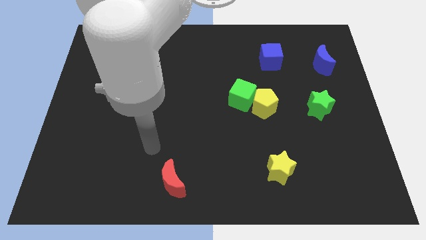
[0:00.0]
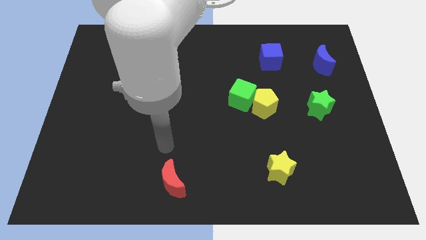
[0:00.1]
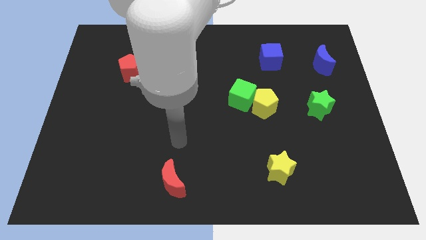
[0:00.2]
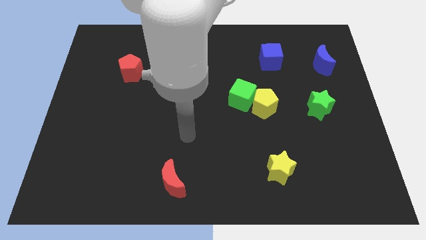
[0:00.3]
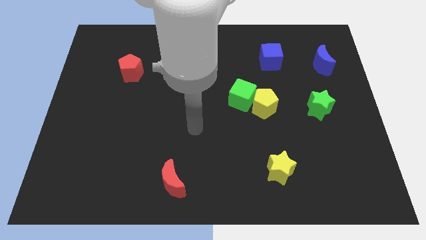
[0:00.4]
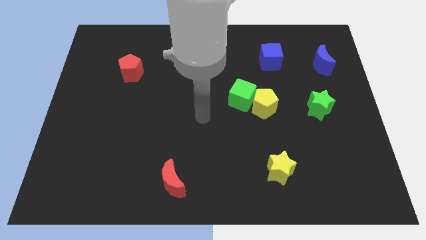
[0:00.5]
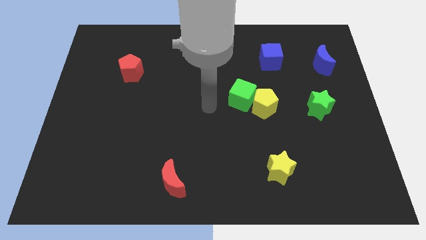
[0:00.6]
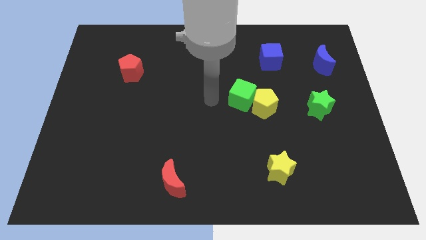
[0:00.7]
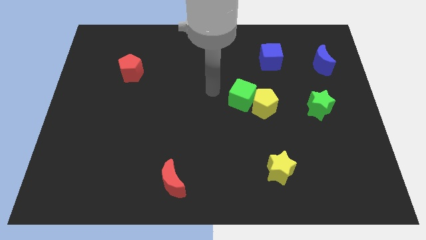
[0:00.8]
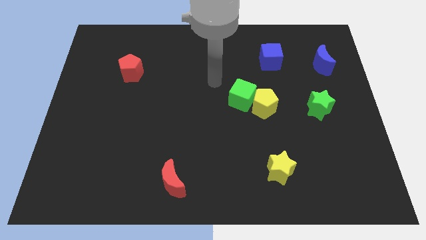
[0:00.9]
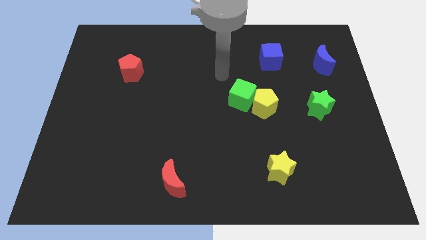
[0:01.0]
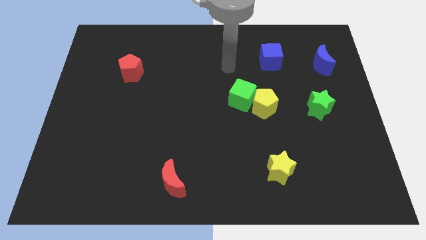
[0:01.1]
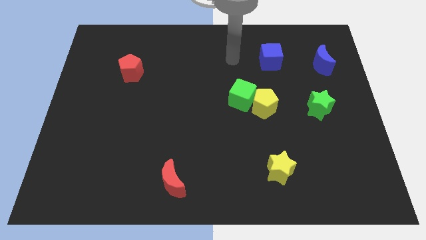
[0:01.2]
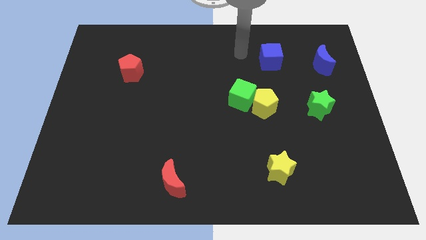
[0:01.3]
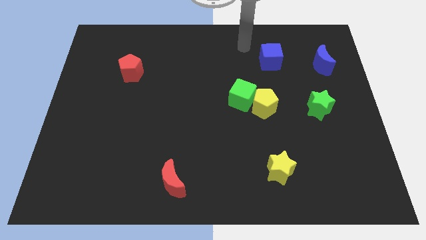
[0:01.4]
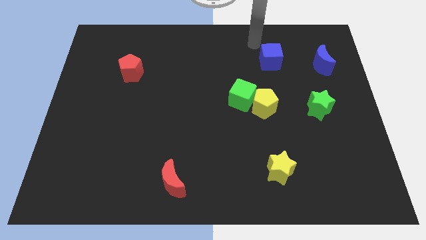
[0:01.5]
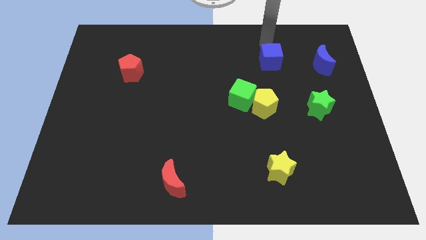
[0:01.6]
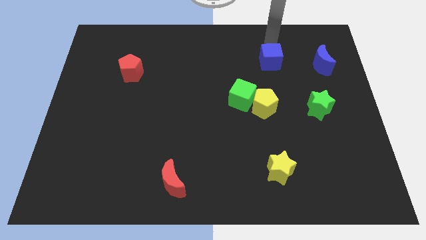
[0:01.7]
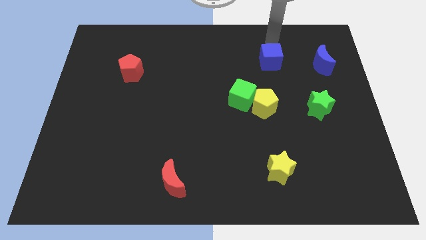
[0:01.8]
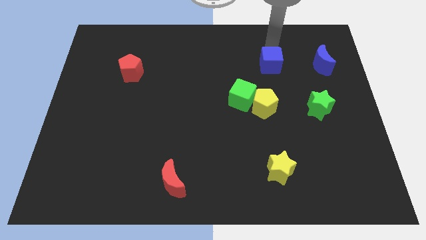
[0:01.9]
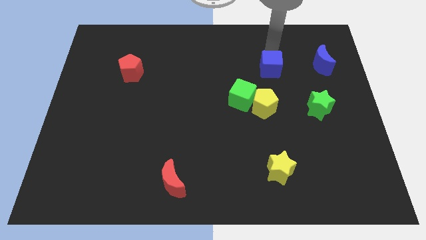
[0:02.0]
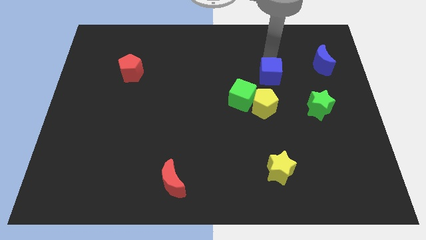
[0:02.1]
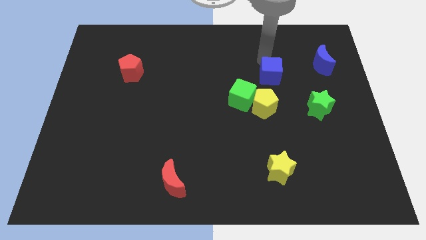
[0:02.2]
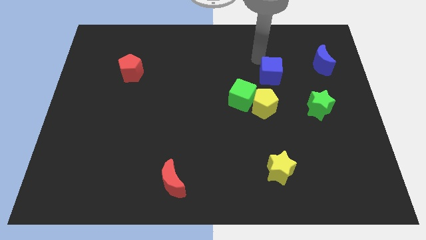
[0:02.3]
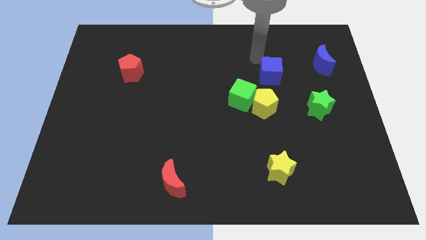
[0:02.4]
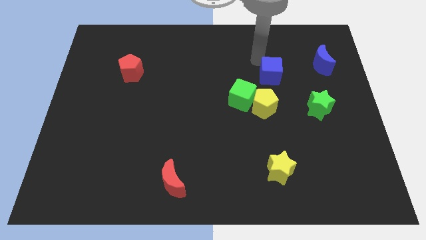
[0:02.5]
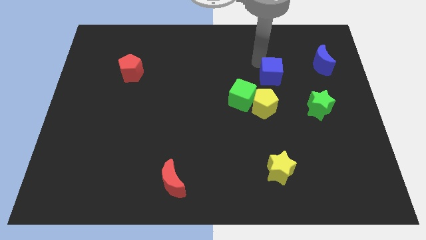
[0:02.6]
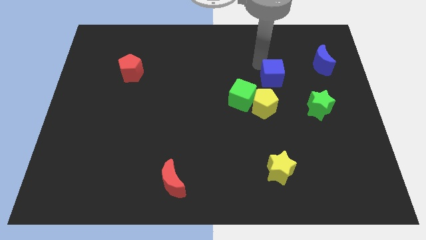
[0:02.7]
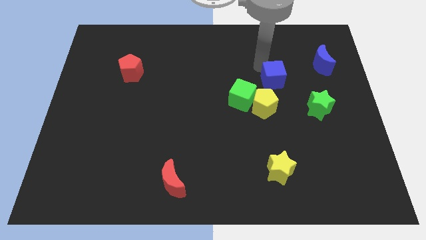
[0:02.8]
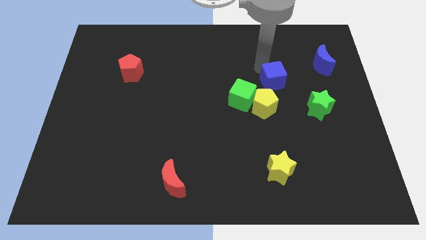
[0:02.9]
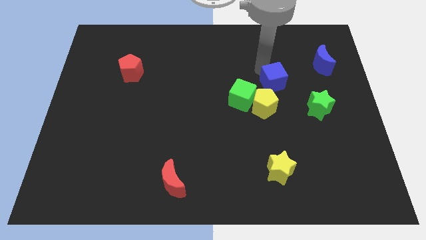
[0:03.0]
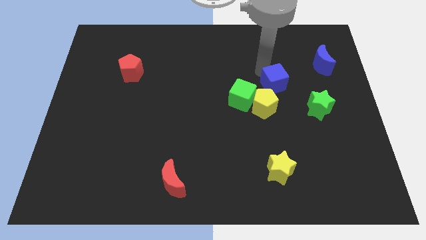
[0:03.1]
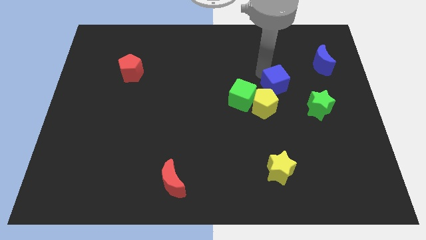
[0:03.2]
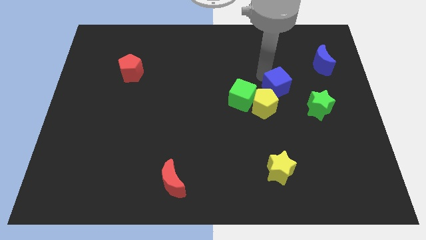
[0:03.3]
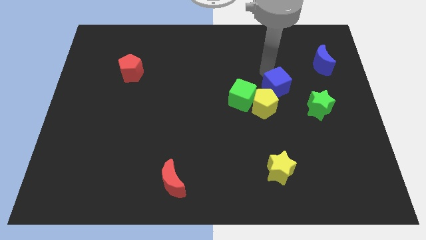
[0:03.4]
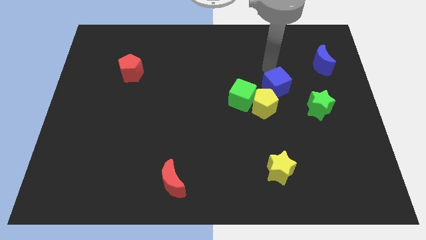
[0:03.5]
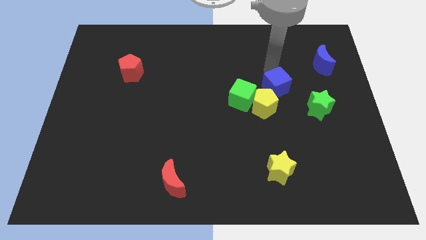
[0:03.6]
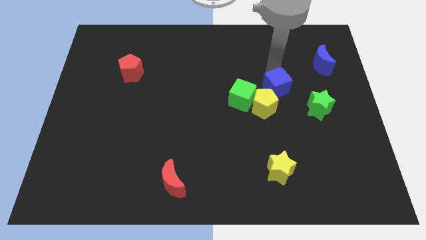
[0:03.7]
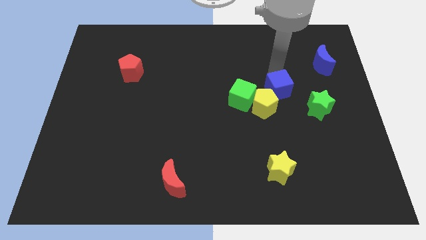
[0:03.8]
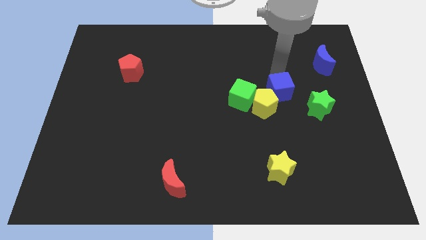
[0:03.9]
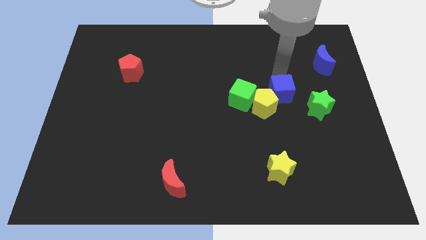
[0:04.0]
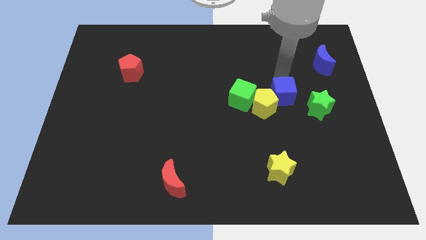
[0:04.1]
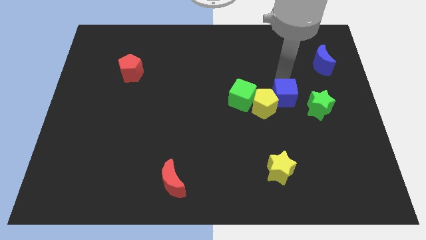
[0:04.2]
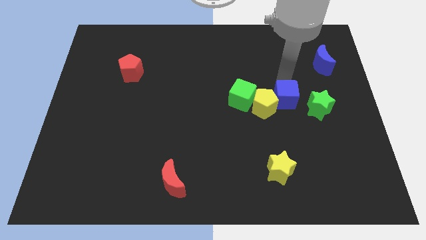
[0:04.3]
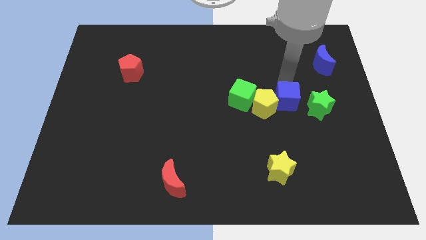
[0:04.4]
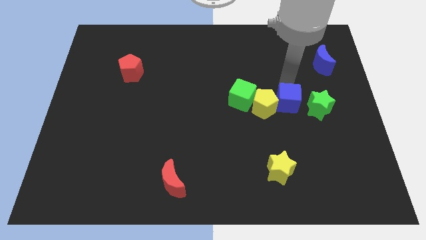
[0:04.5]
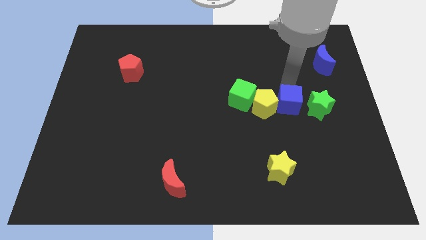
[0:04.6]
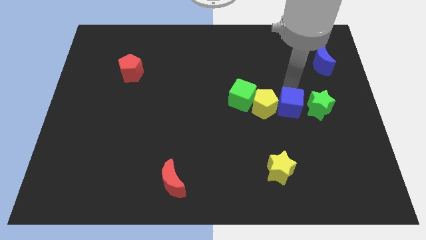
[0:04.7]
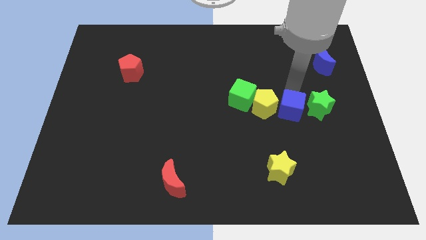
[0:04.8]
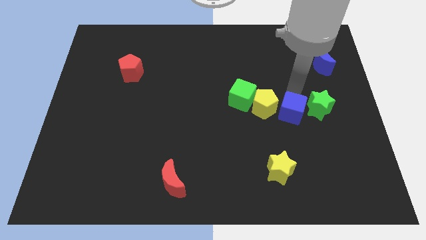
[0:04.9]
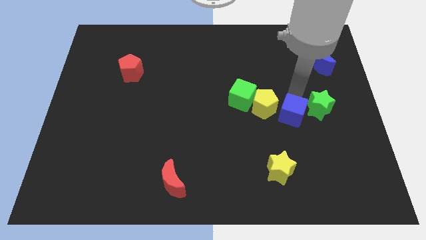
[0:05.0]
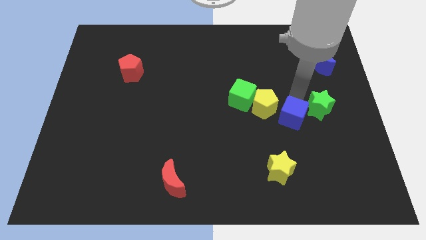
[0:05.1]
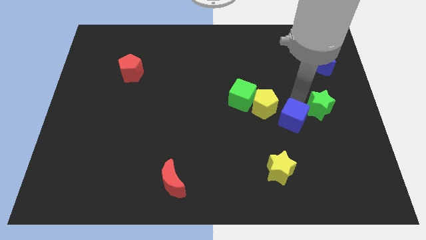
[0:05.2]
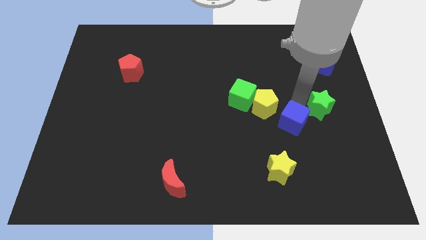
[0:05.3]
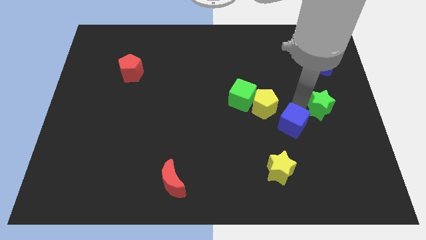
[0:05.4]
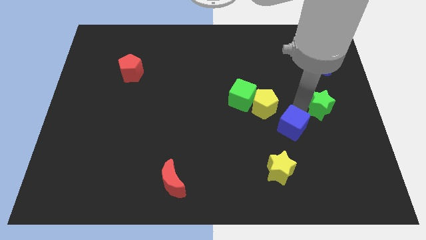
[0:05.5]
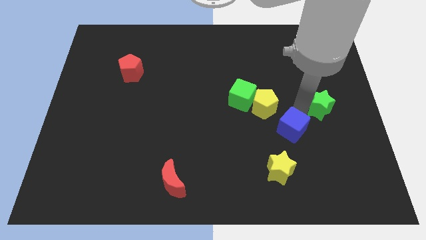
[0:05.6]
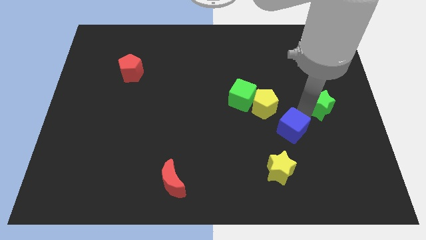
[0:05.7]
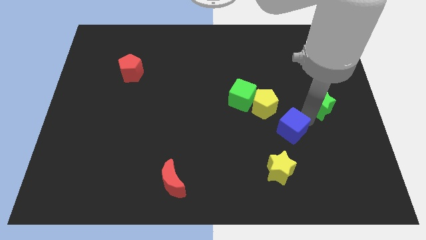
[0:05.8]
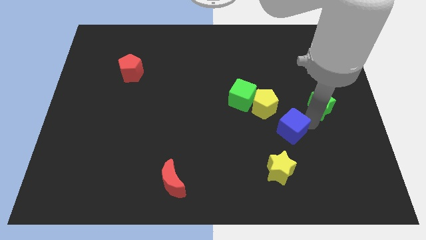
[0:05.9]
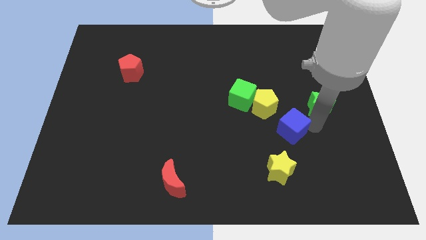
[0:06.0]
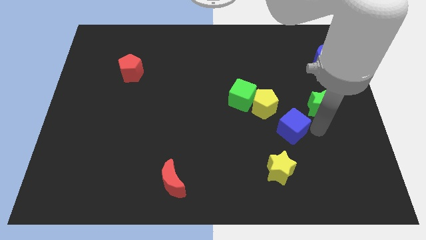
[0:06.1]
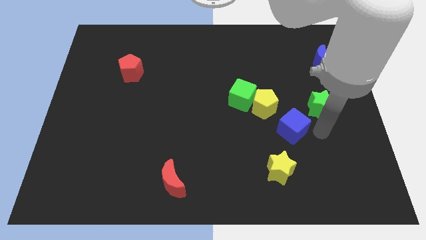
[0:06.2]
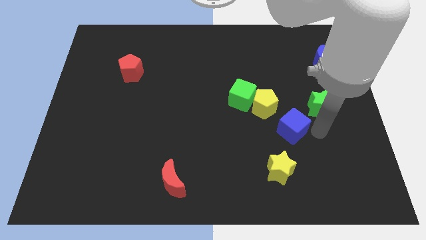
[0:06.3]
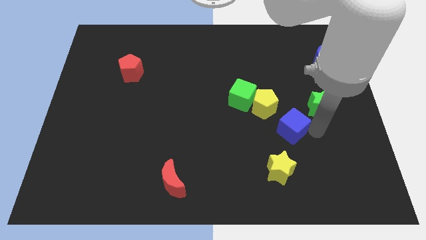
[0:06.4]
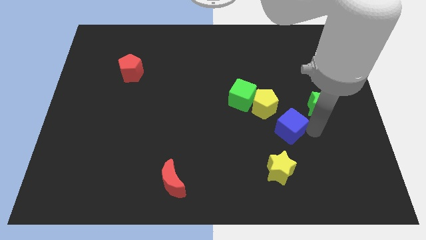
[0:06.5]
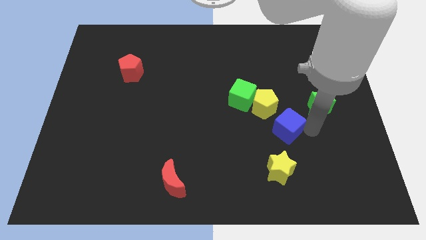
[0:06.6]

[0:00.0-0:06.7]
slide the blue cube to the bottom of the yellow pentagon

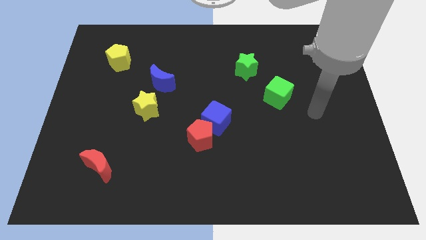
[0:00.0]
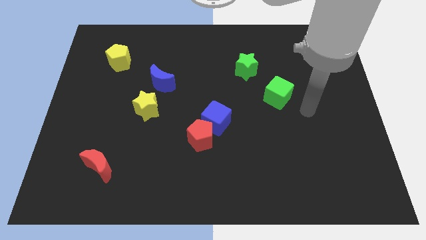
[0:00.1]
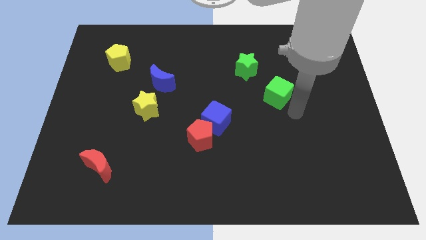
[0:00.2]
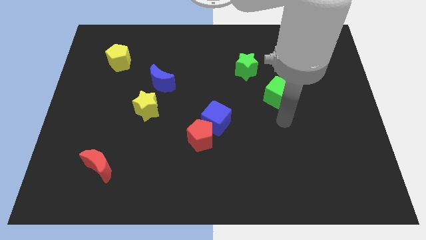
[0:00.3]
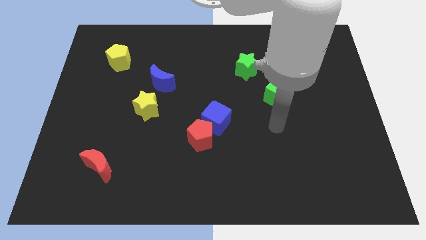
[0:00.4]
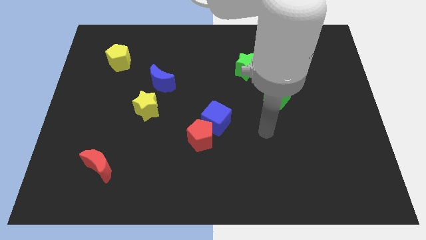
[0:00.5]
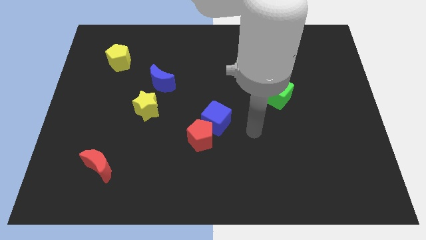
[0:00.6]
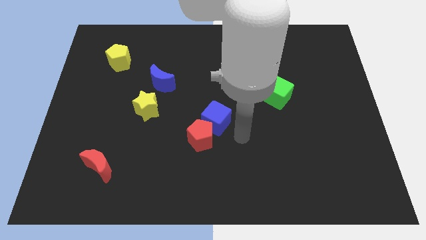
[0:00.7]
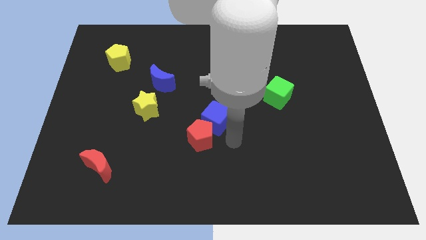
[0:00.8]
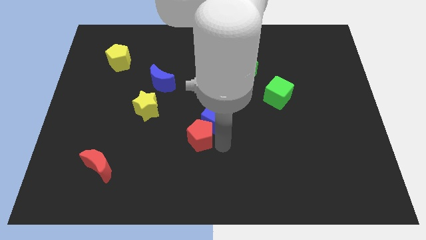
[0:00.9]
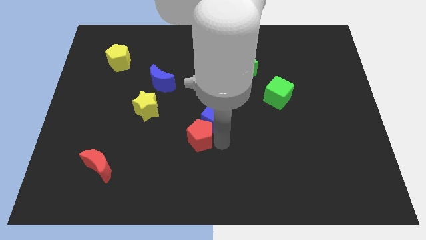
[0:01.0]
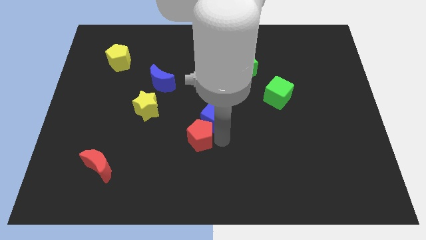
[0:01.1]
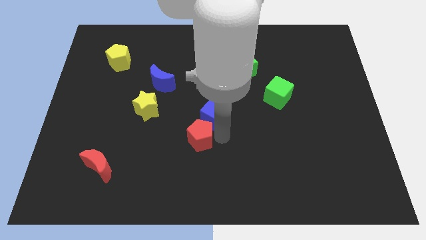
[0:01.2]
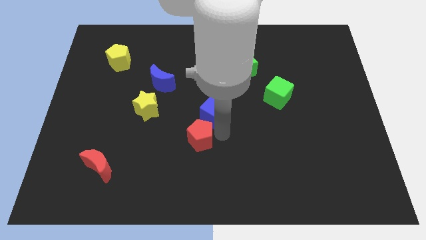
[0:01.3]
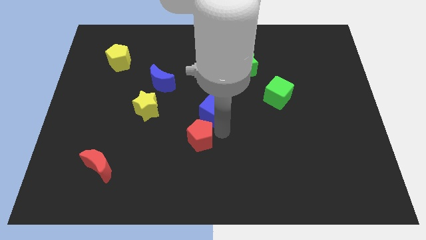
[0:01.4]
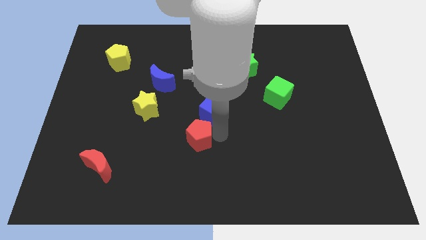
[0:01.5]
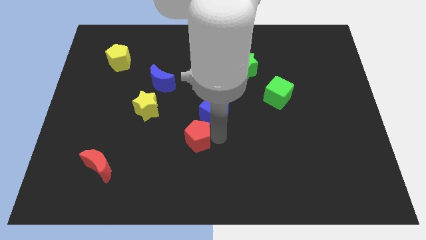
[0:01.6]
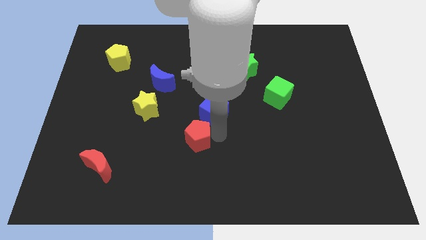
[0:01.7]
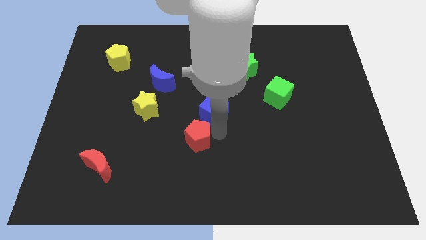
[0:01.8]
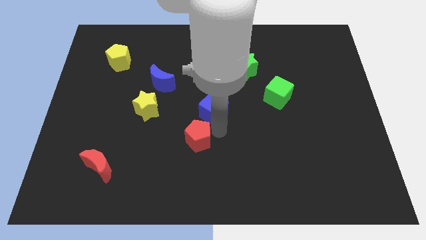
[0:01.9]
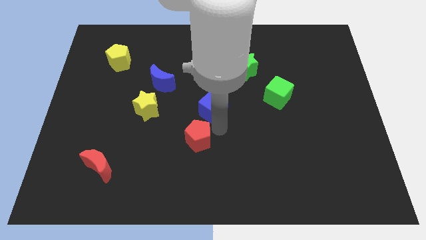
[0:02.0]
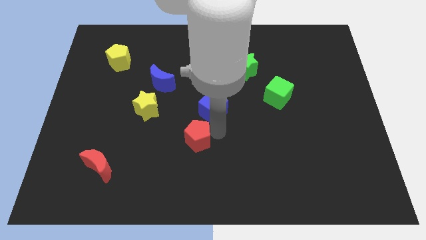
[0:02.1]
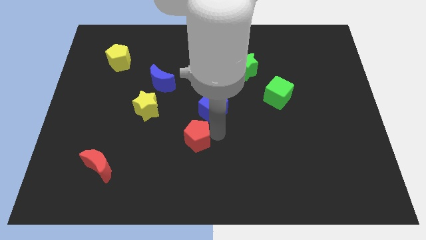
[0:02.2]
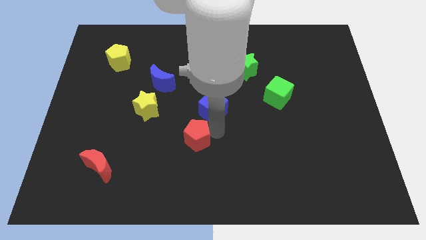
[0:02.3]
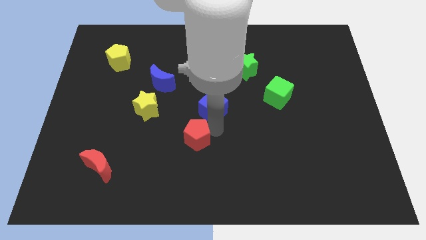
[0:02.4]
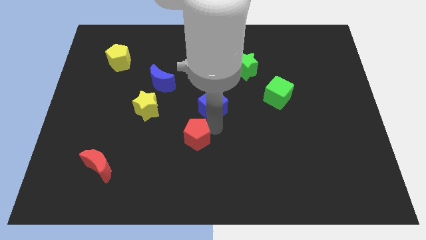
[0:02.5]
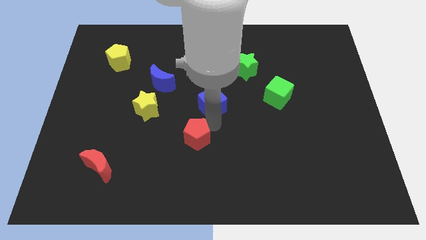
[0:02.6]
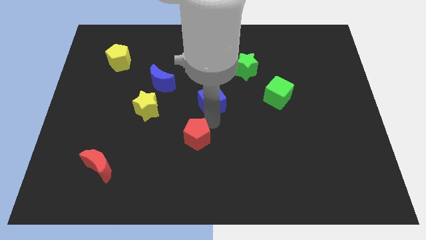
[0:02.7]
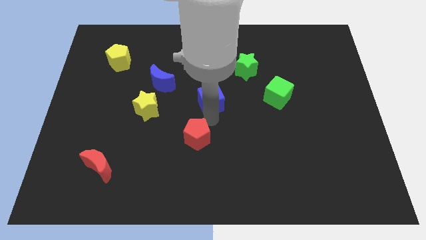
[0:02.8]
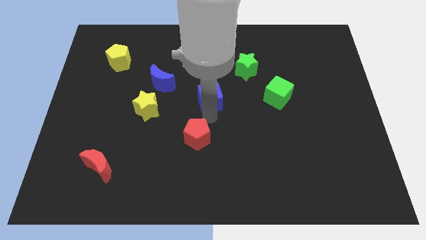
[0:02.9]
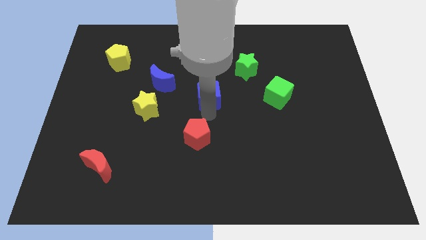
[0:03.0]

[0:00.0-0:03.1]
slide the blue cube right of the blue moon
